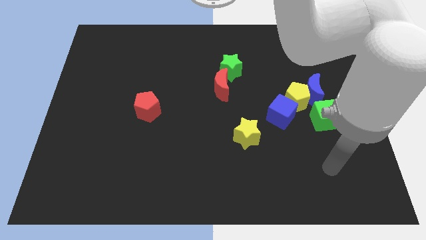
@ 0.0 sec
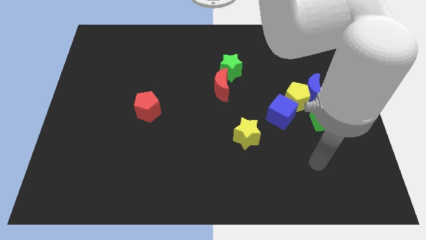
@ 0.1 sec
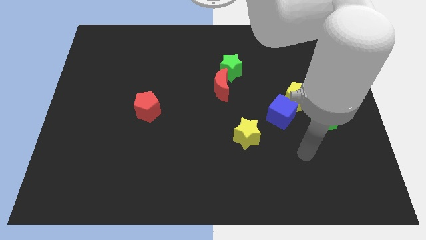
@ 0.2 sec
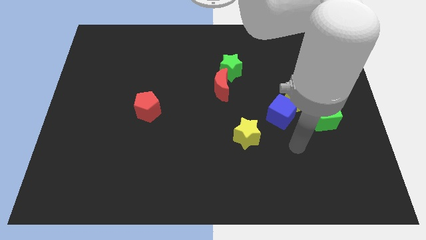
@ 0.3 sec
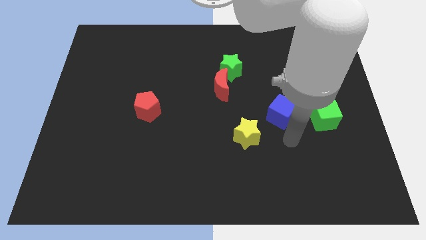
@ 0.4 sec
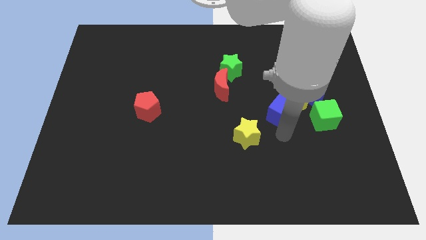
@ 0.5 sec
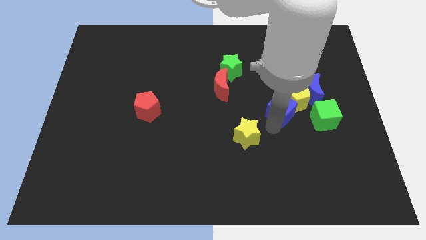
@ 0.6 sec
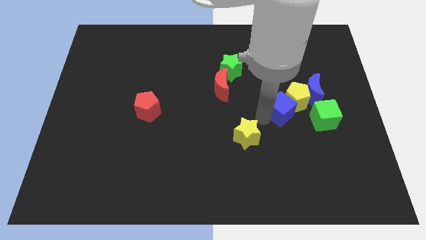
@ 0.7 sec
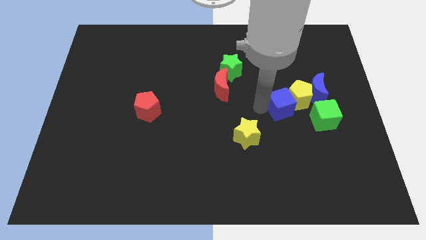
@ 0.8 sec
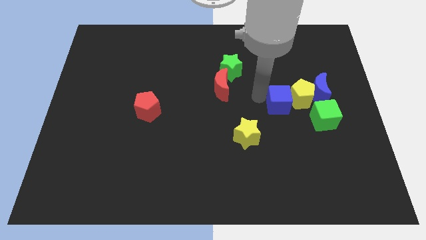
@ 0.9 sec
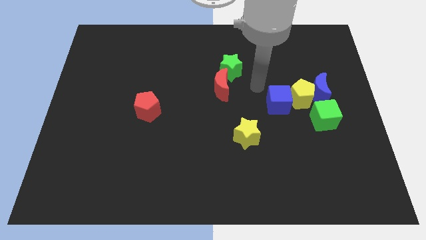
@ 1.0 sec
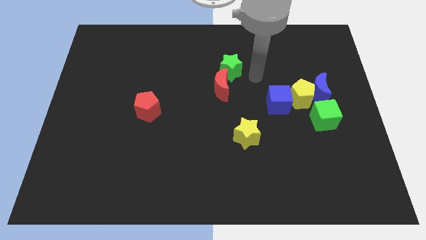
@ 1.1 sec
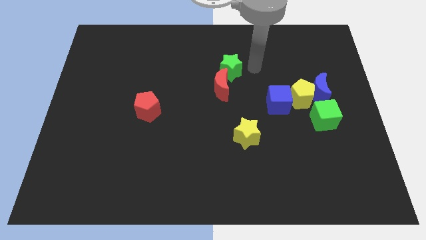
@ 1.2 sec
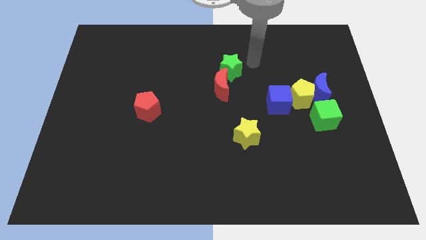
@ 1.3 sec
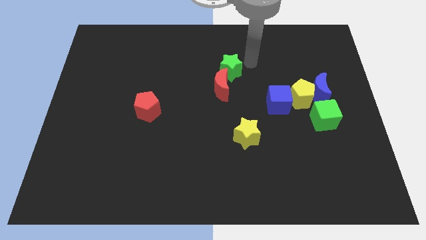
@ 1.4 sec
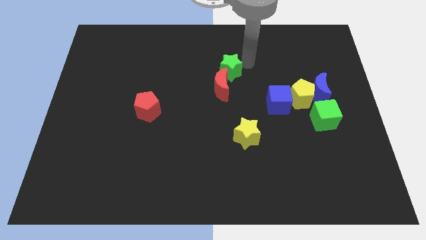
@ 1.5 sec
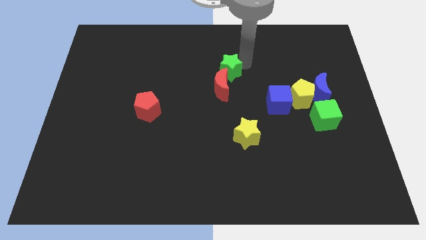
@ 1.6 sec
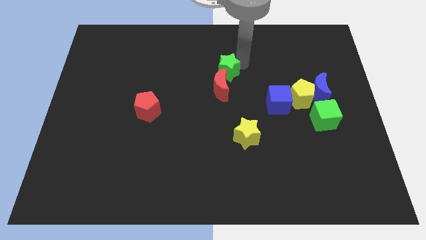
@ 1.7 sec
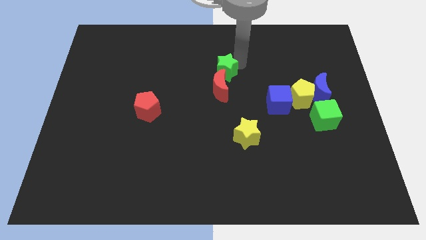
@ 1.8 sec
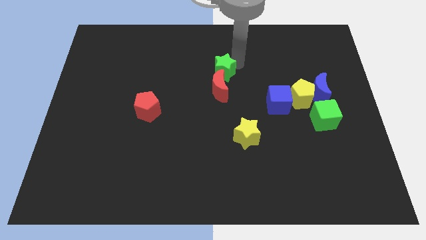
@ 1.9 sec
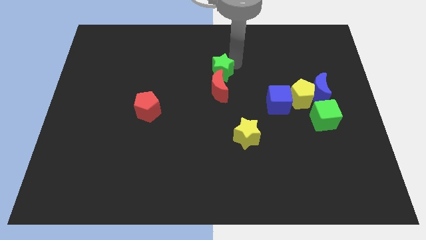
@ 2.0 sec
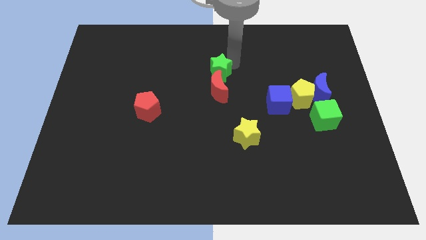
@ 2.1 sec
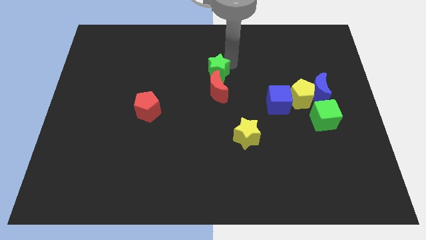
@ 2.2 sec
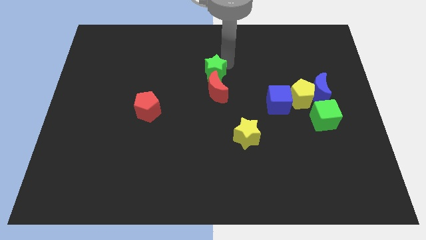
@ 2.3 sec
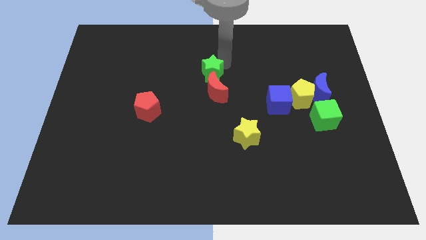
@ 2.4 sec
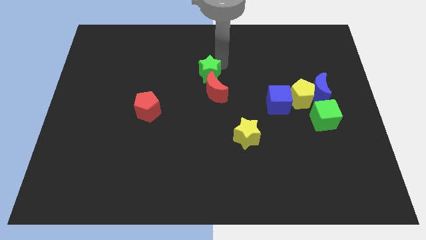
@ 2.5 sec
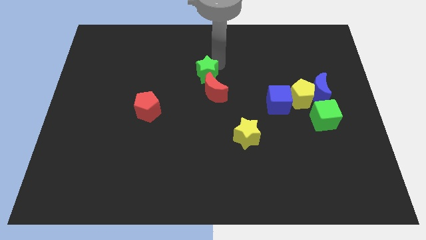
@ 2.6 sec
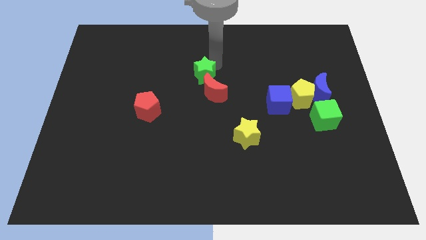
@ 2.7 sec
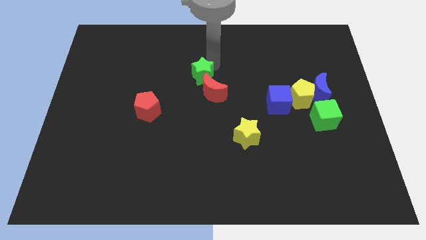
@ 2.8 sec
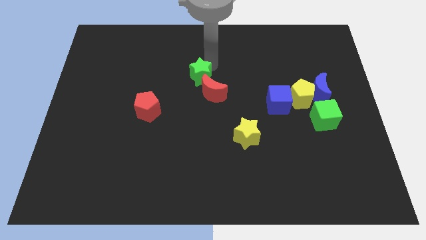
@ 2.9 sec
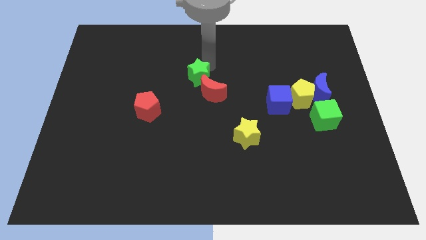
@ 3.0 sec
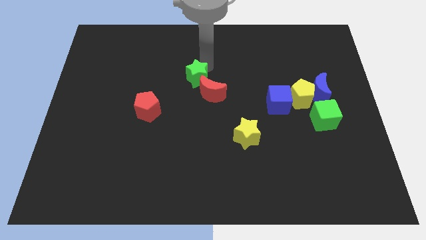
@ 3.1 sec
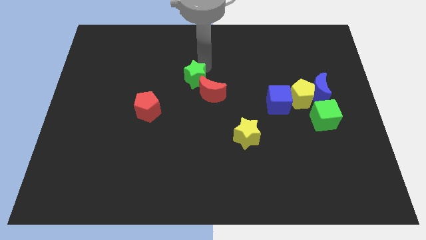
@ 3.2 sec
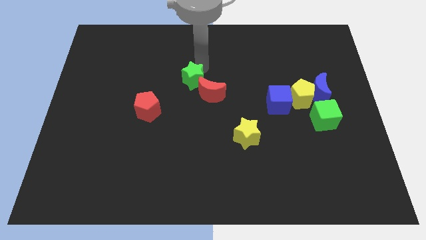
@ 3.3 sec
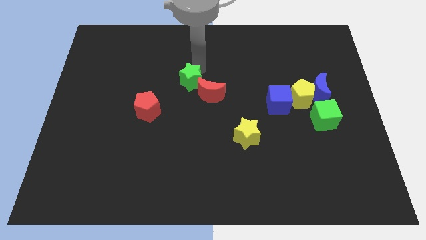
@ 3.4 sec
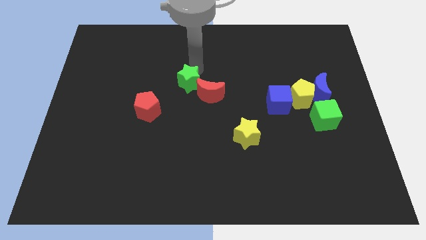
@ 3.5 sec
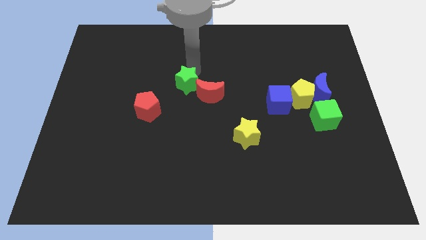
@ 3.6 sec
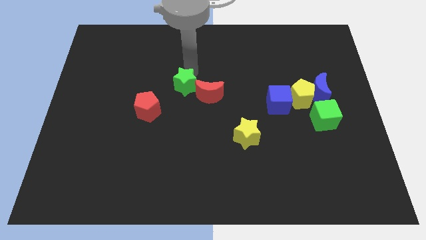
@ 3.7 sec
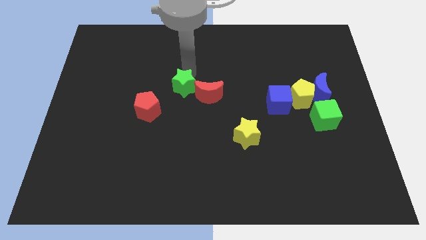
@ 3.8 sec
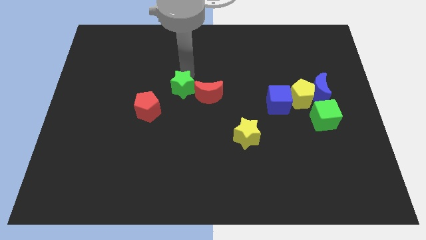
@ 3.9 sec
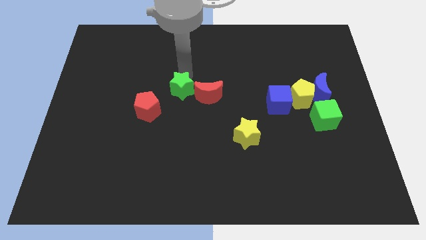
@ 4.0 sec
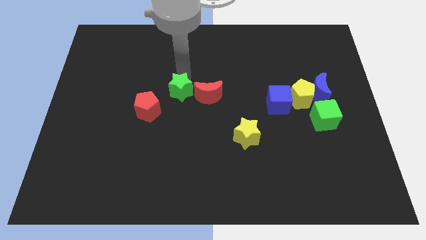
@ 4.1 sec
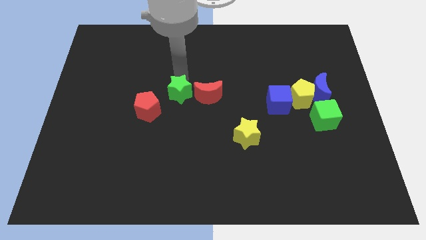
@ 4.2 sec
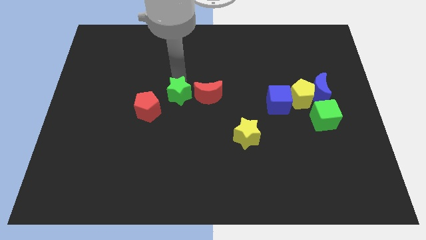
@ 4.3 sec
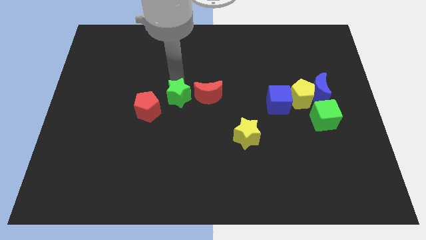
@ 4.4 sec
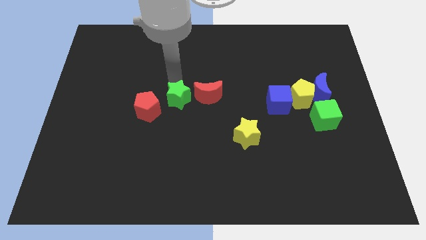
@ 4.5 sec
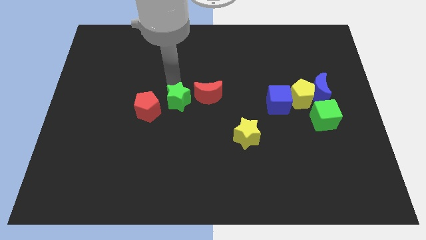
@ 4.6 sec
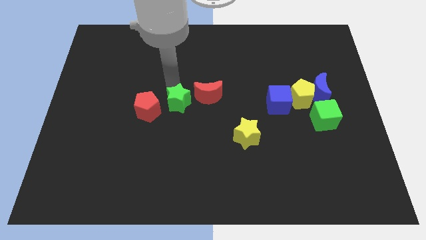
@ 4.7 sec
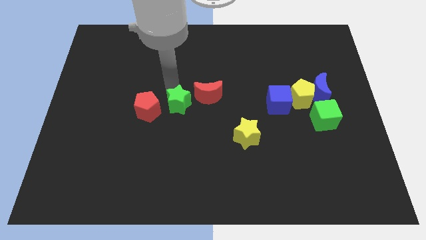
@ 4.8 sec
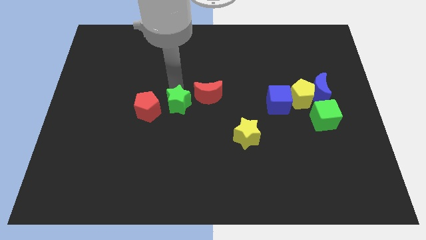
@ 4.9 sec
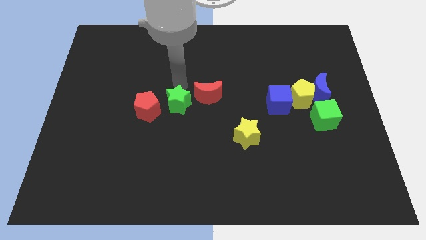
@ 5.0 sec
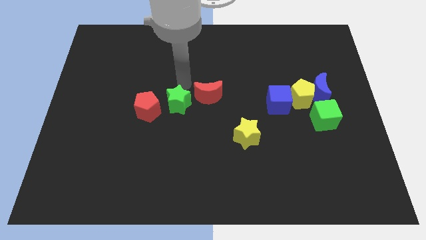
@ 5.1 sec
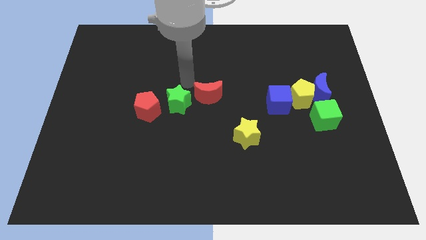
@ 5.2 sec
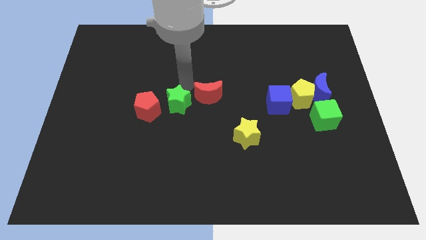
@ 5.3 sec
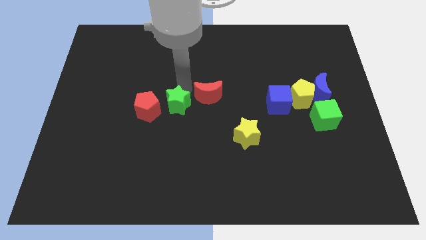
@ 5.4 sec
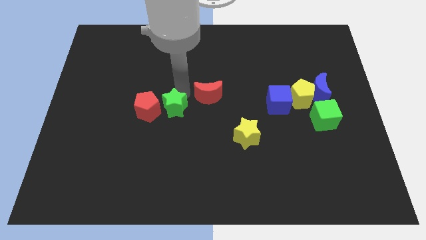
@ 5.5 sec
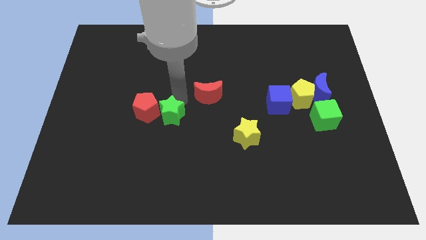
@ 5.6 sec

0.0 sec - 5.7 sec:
move the green star downwards and to the left diagonally

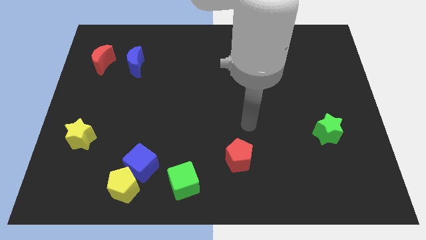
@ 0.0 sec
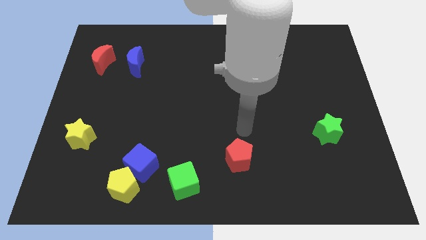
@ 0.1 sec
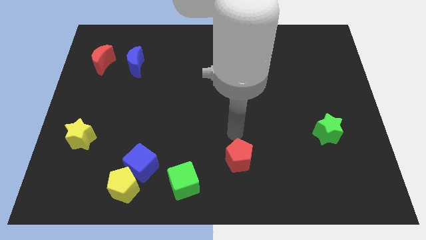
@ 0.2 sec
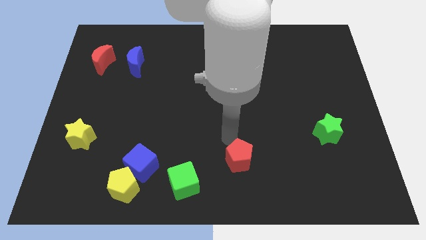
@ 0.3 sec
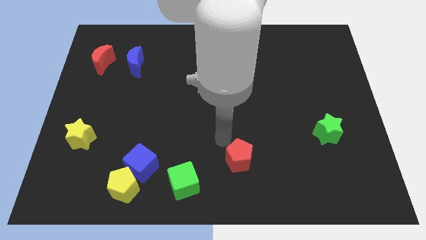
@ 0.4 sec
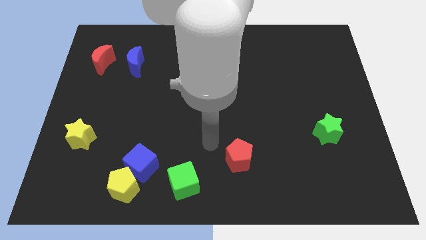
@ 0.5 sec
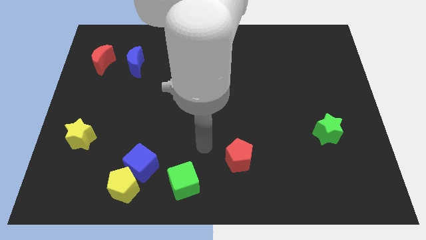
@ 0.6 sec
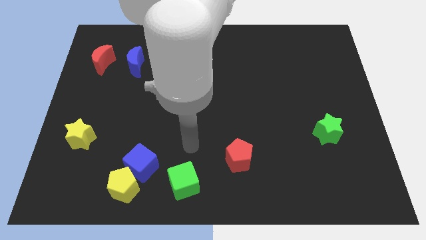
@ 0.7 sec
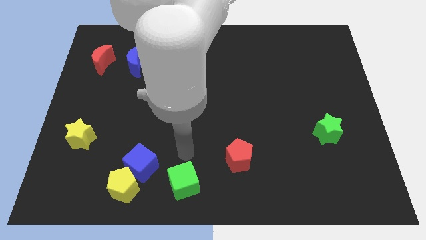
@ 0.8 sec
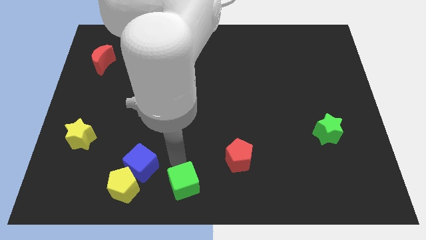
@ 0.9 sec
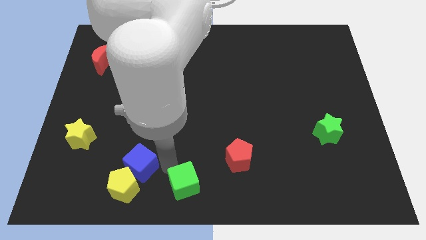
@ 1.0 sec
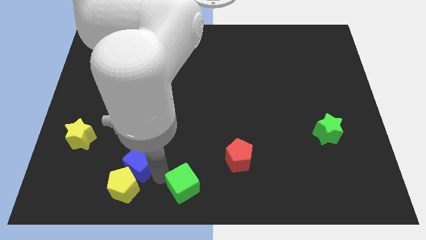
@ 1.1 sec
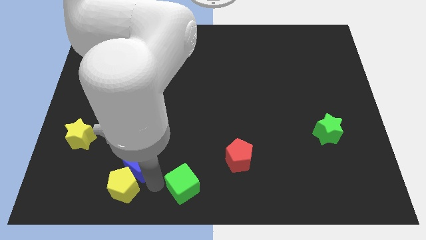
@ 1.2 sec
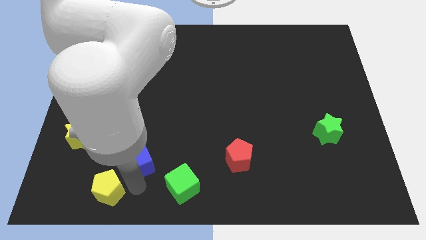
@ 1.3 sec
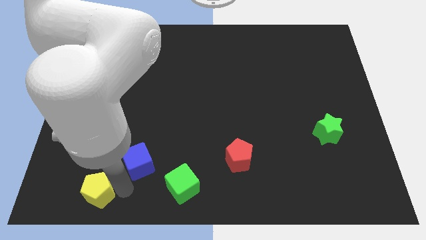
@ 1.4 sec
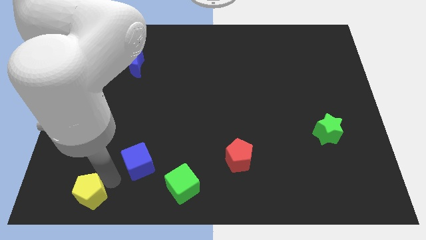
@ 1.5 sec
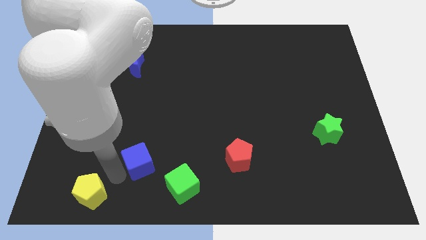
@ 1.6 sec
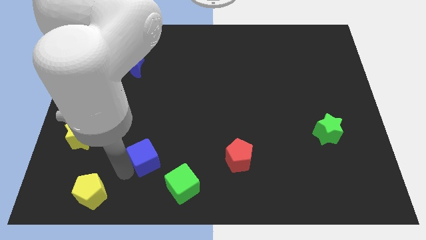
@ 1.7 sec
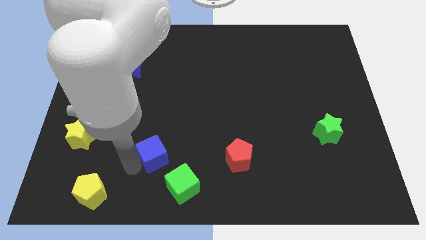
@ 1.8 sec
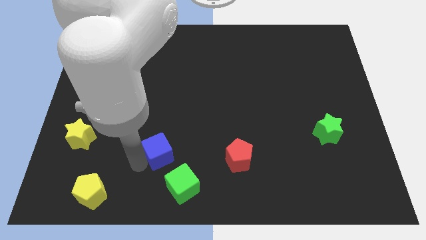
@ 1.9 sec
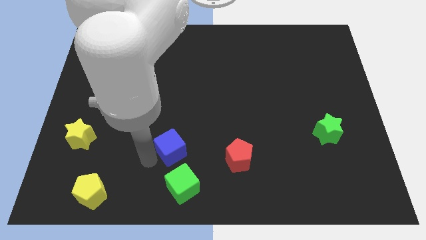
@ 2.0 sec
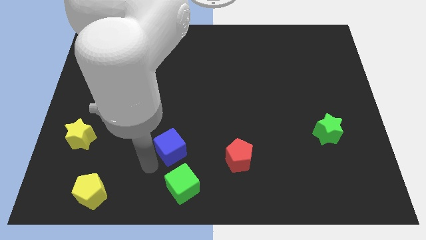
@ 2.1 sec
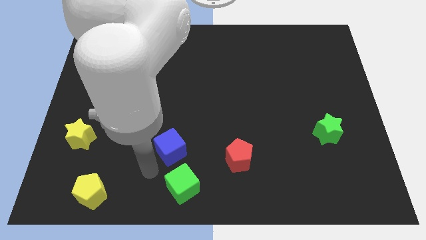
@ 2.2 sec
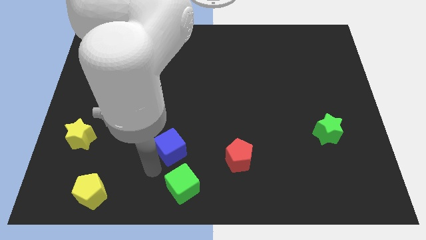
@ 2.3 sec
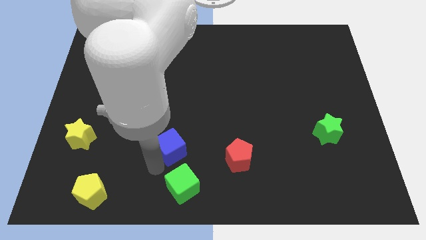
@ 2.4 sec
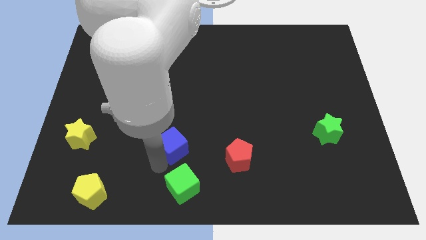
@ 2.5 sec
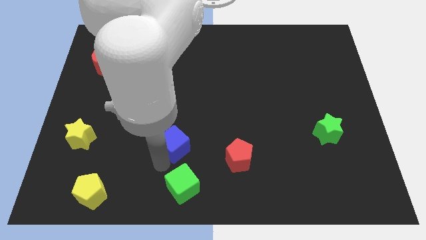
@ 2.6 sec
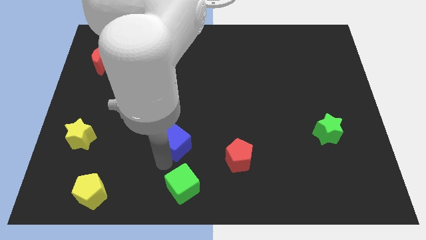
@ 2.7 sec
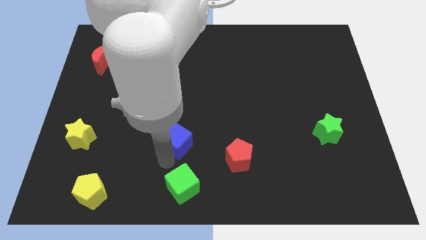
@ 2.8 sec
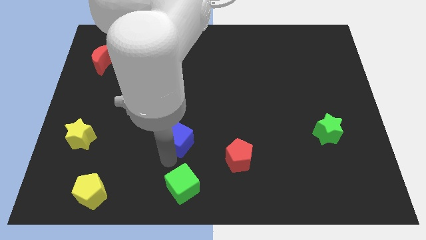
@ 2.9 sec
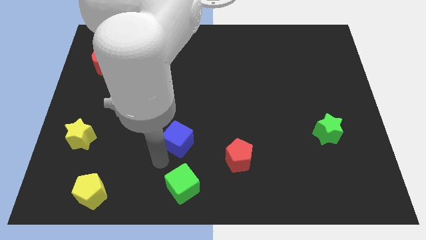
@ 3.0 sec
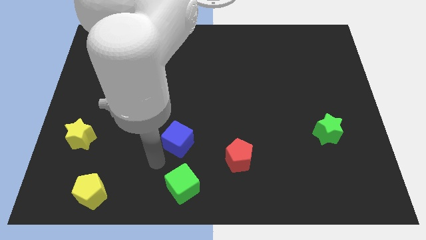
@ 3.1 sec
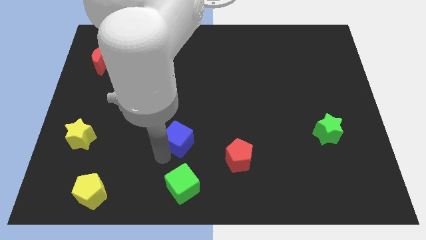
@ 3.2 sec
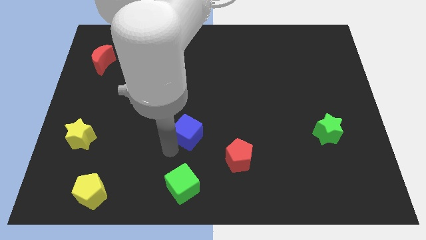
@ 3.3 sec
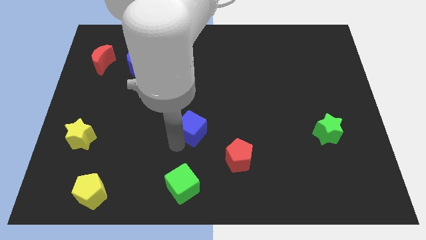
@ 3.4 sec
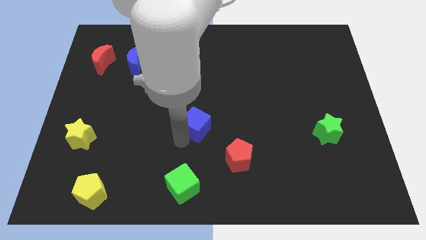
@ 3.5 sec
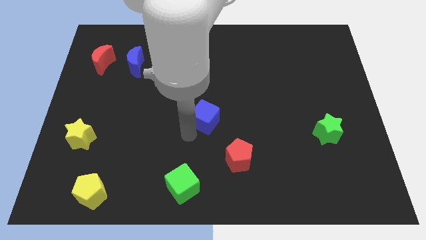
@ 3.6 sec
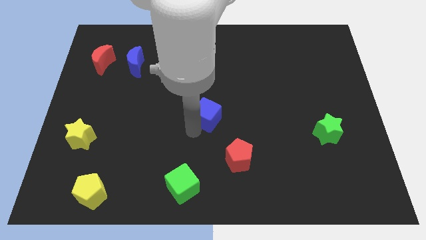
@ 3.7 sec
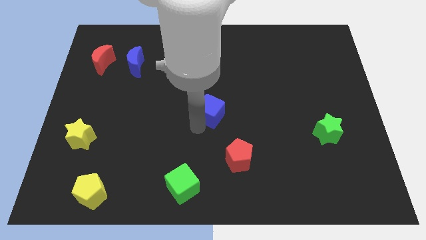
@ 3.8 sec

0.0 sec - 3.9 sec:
push the blue cube upwards and right diagonally
